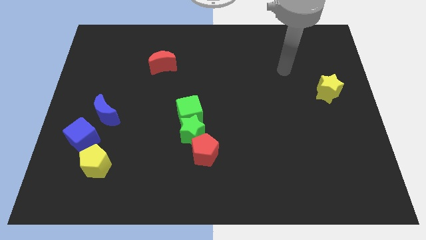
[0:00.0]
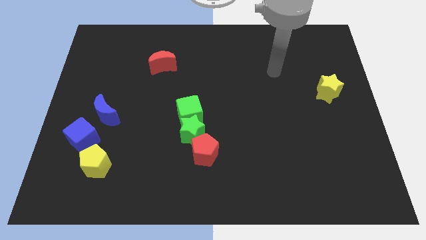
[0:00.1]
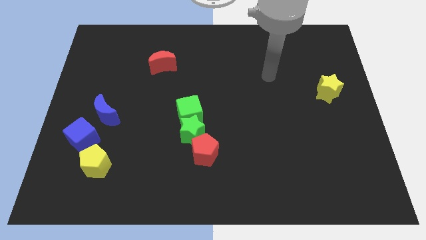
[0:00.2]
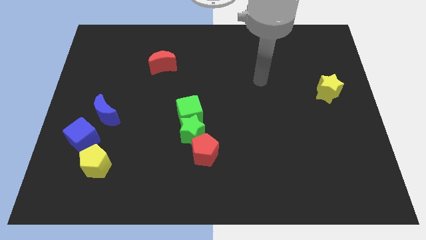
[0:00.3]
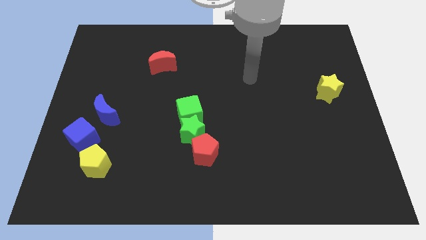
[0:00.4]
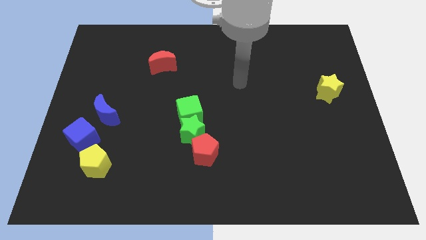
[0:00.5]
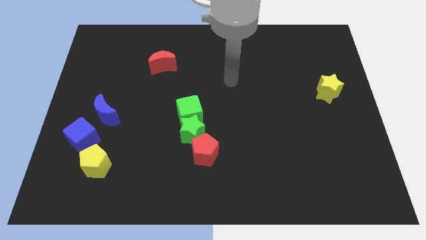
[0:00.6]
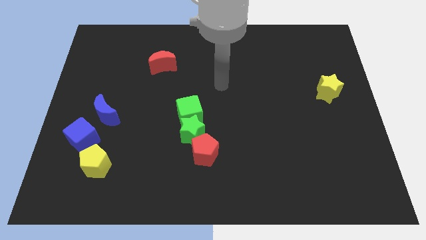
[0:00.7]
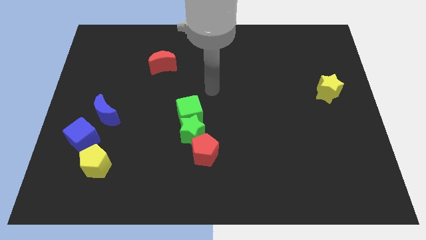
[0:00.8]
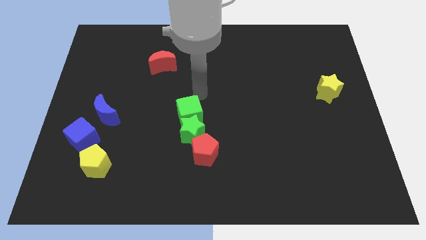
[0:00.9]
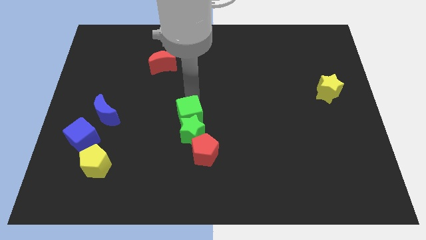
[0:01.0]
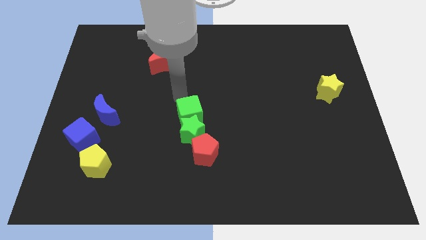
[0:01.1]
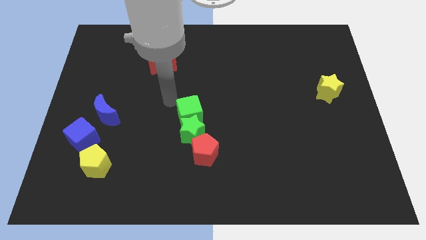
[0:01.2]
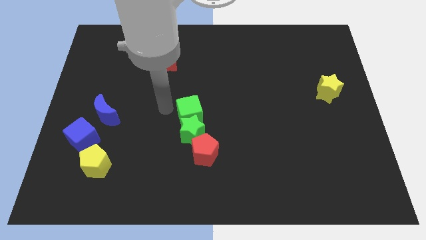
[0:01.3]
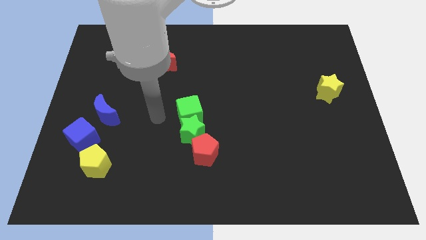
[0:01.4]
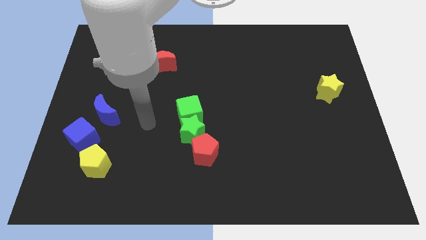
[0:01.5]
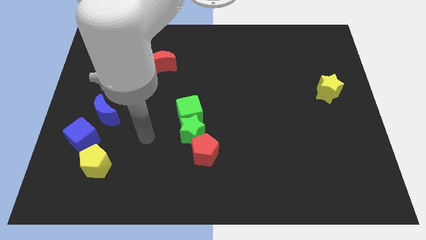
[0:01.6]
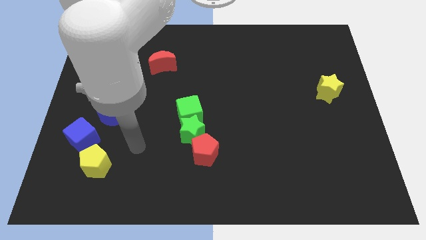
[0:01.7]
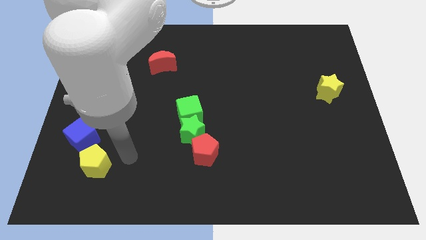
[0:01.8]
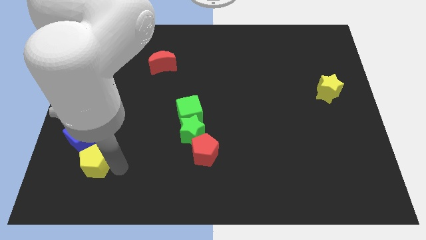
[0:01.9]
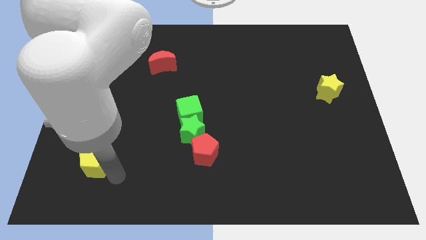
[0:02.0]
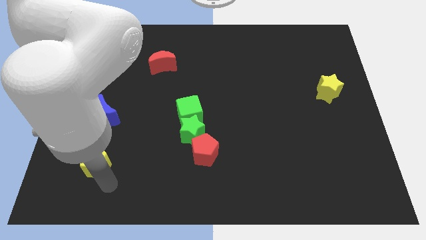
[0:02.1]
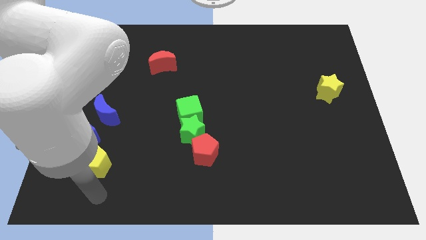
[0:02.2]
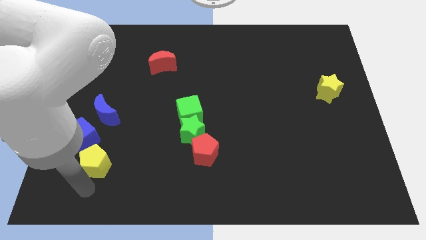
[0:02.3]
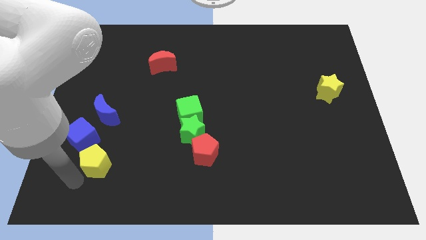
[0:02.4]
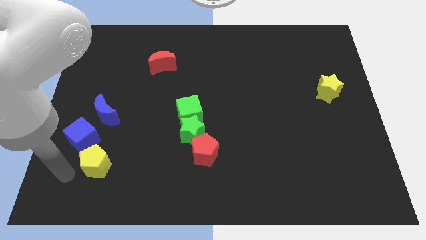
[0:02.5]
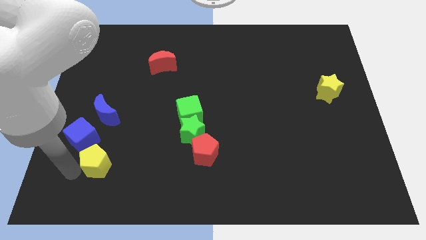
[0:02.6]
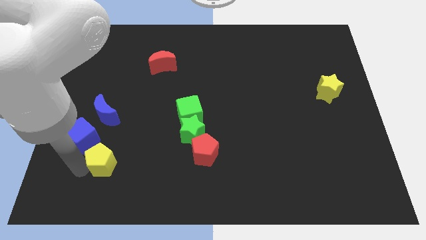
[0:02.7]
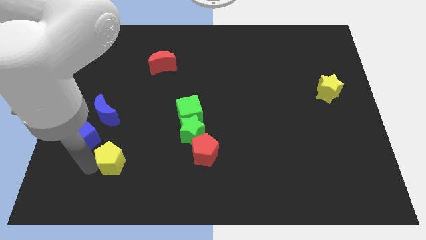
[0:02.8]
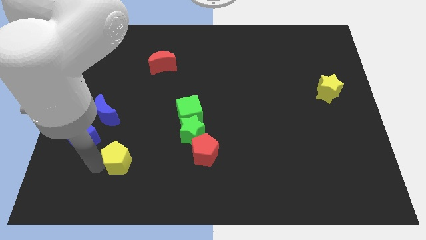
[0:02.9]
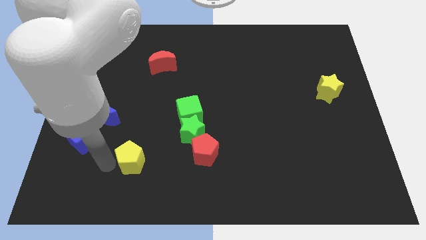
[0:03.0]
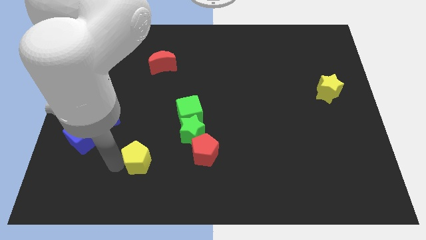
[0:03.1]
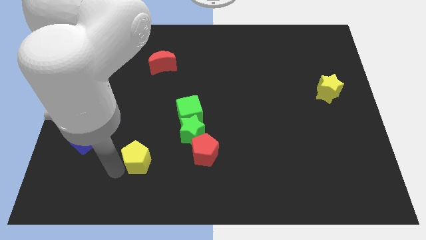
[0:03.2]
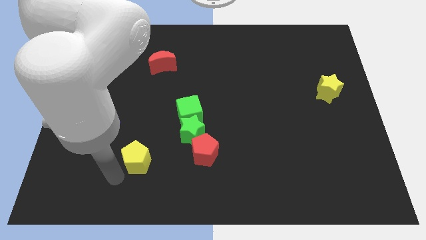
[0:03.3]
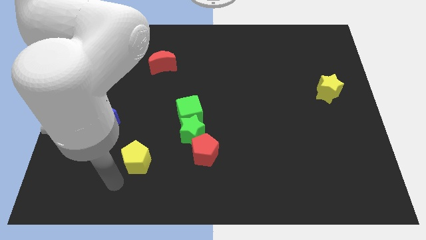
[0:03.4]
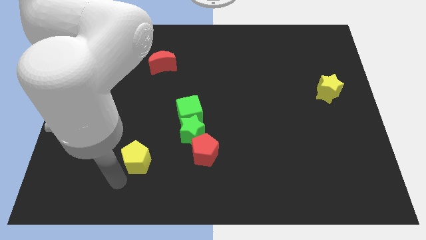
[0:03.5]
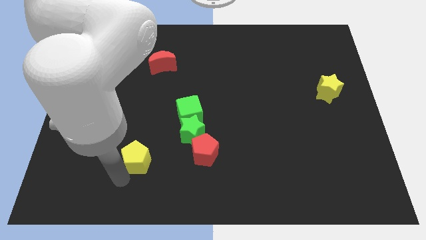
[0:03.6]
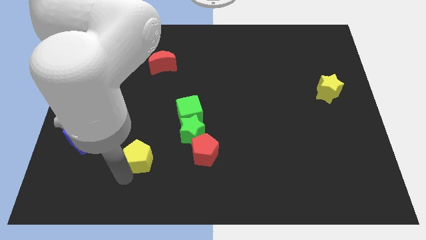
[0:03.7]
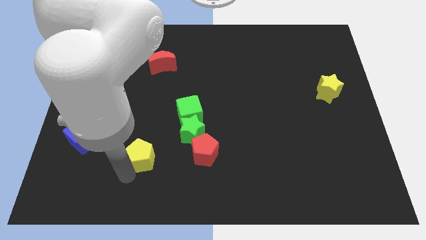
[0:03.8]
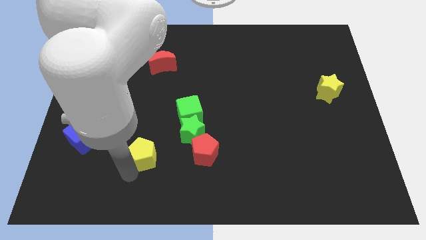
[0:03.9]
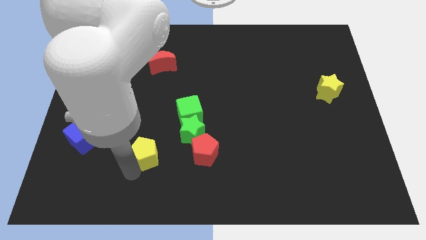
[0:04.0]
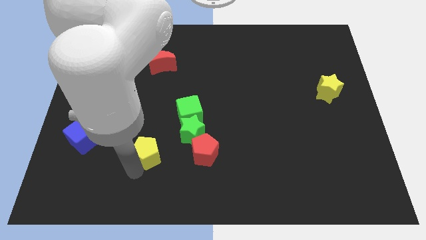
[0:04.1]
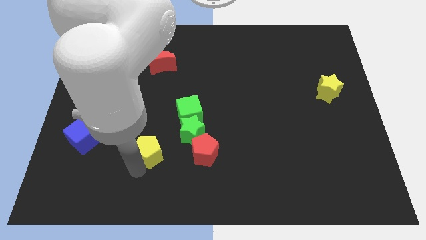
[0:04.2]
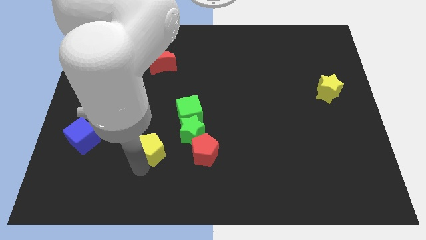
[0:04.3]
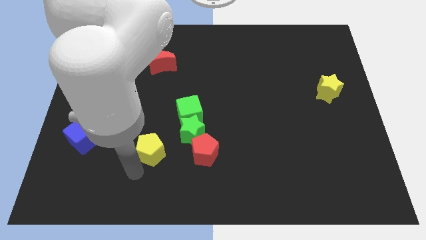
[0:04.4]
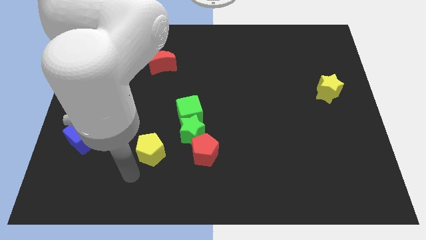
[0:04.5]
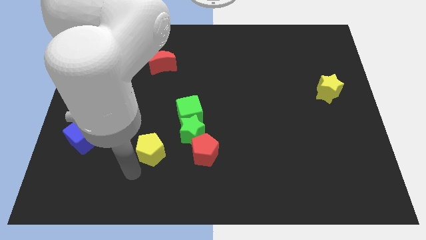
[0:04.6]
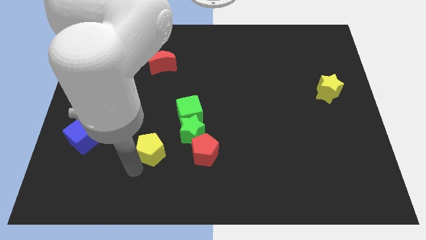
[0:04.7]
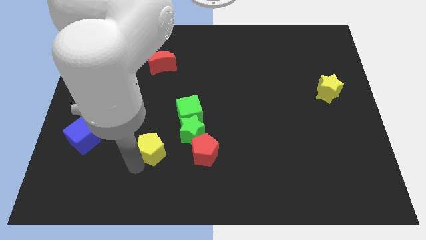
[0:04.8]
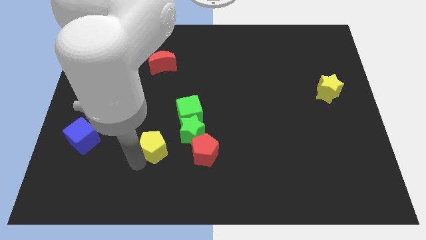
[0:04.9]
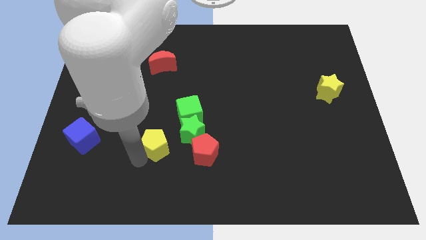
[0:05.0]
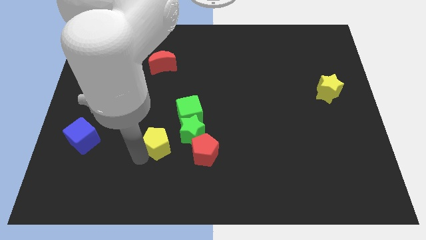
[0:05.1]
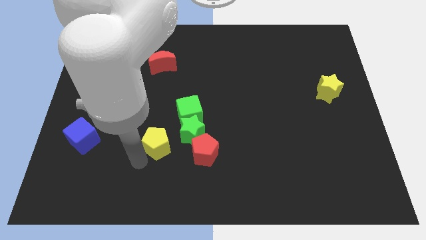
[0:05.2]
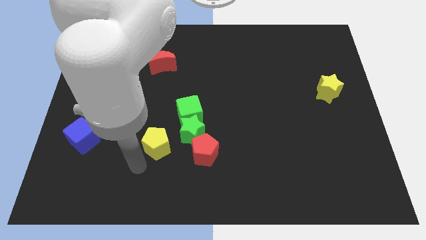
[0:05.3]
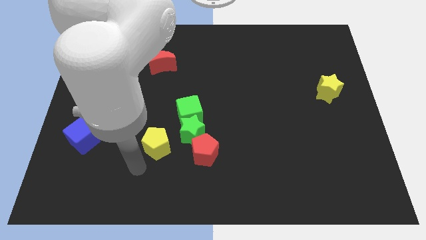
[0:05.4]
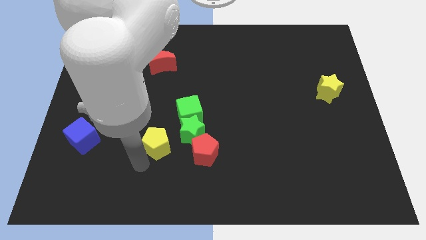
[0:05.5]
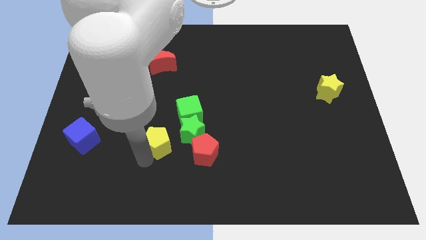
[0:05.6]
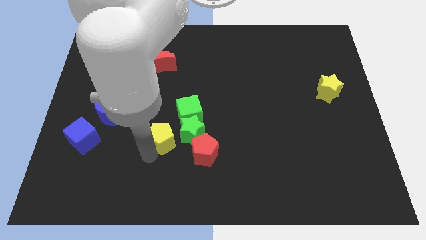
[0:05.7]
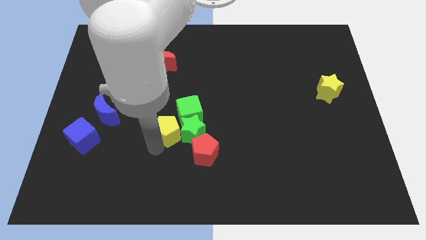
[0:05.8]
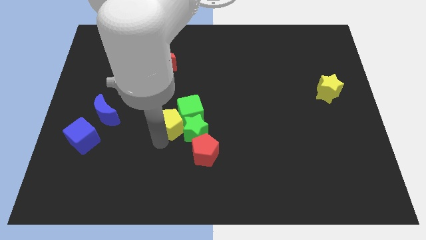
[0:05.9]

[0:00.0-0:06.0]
slide the yellow pentagon towards the green cube

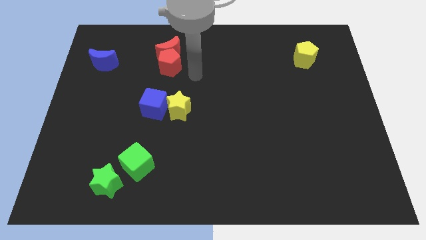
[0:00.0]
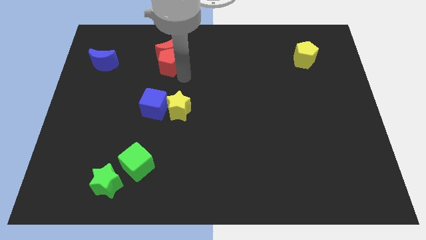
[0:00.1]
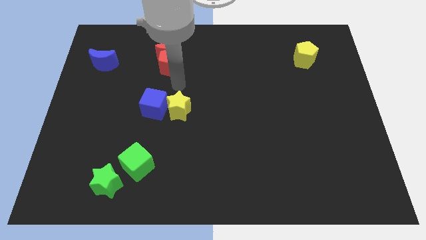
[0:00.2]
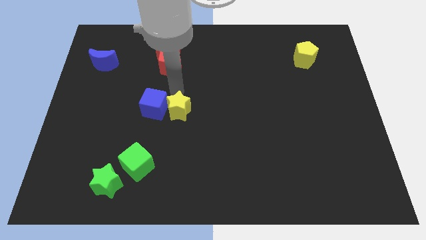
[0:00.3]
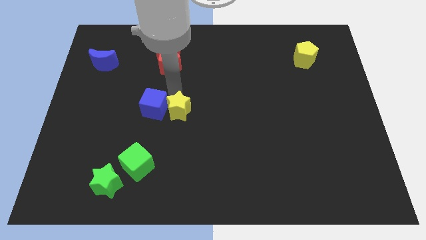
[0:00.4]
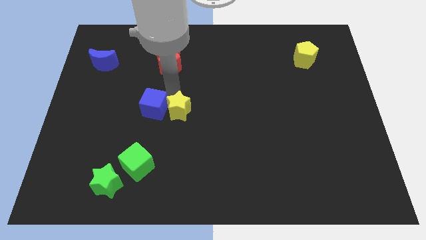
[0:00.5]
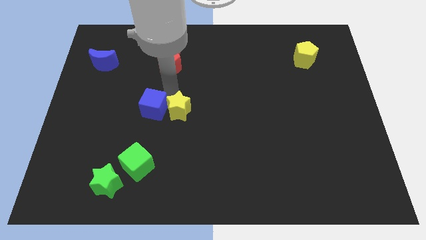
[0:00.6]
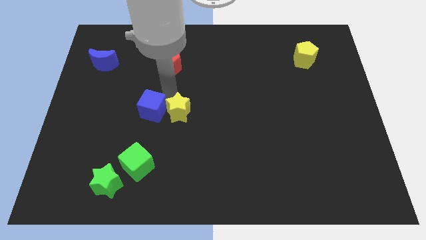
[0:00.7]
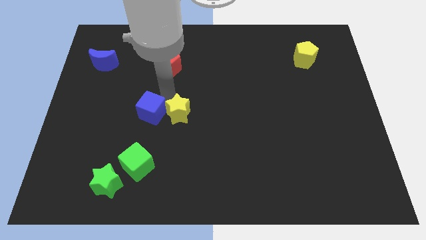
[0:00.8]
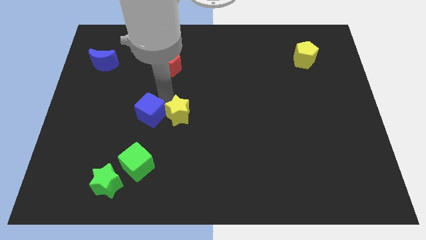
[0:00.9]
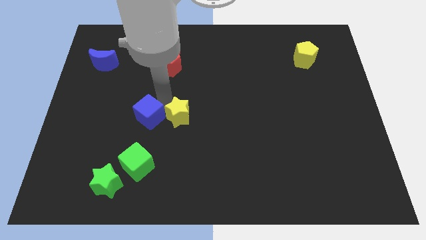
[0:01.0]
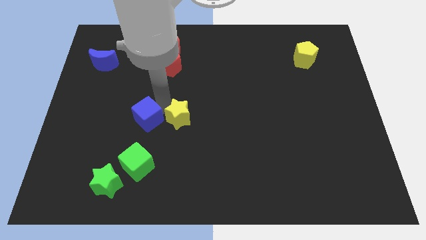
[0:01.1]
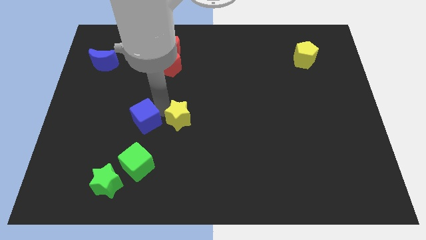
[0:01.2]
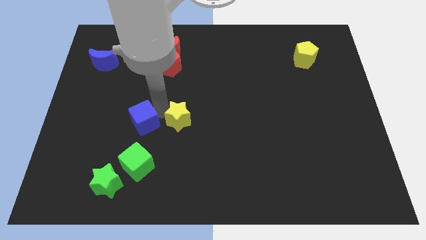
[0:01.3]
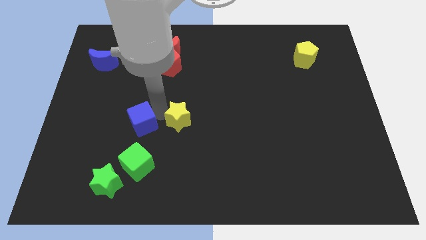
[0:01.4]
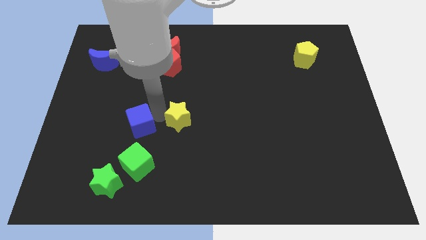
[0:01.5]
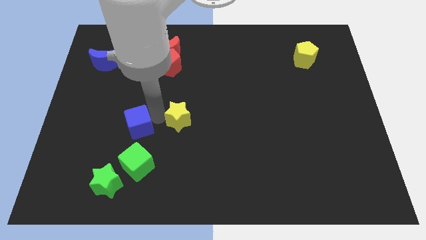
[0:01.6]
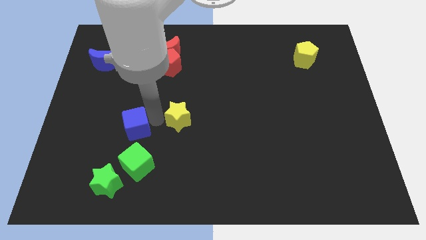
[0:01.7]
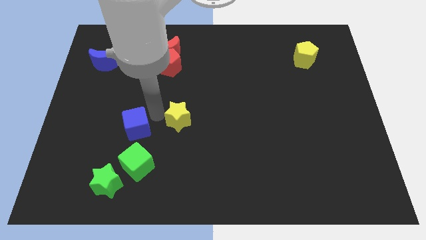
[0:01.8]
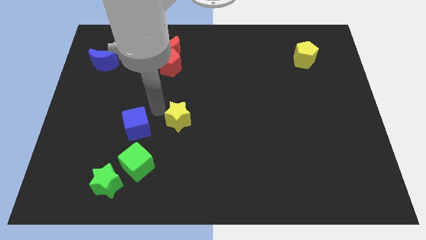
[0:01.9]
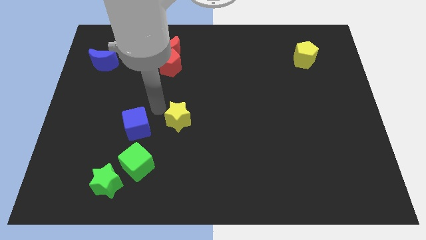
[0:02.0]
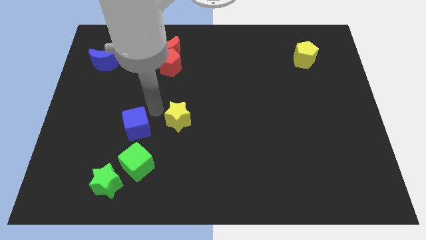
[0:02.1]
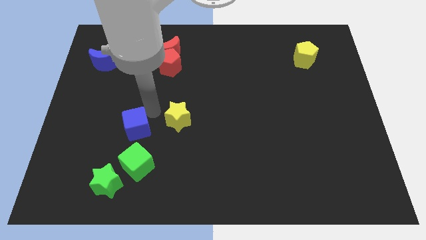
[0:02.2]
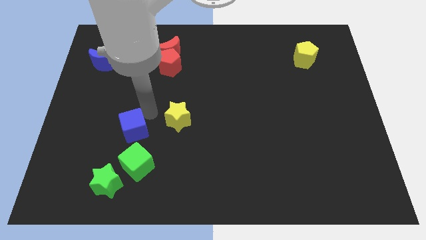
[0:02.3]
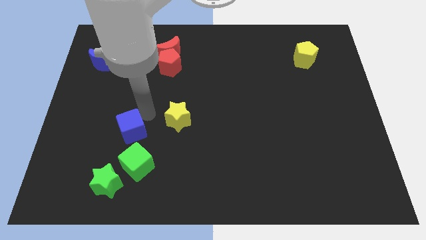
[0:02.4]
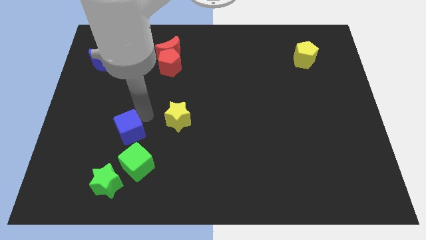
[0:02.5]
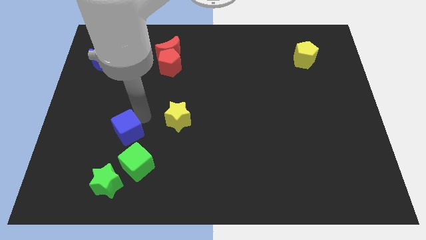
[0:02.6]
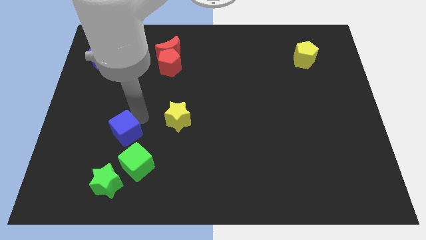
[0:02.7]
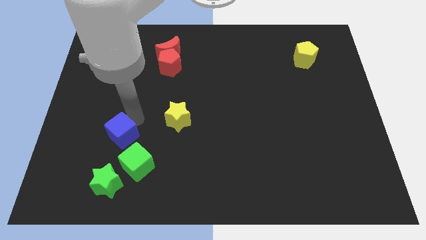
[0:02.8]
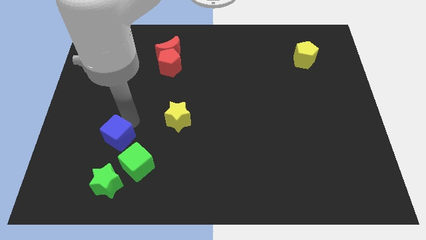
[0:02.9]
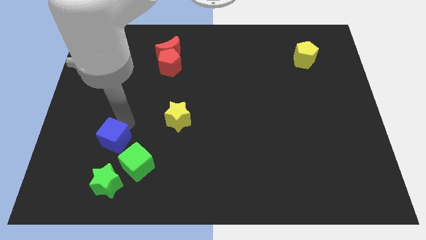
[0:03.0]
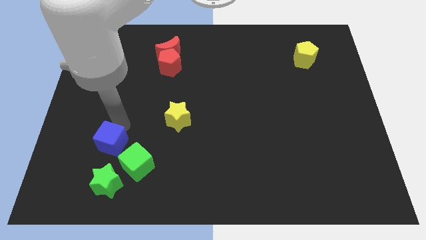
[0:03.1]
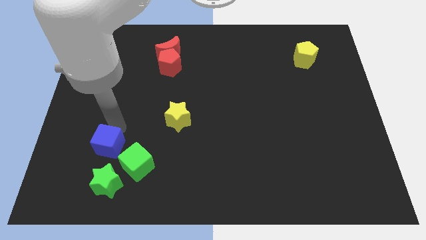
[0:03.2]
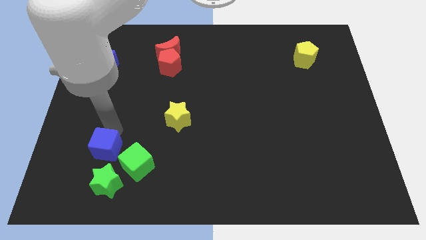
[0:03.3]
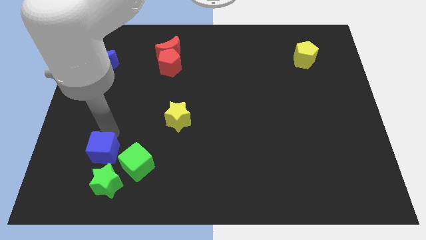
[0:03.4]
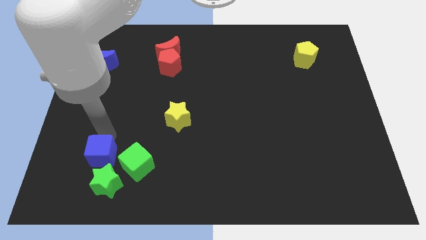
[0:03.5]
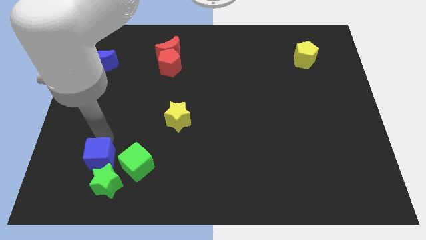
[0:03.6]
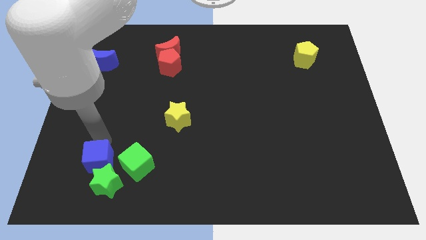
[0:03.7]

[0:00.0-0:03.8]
put the blue cube close to the green star
